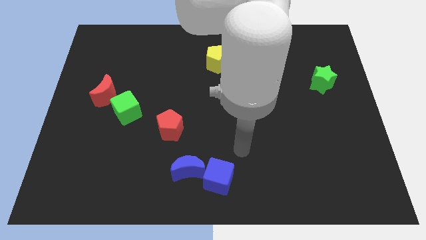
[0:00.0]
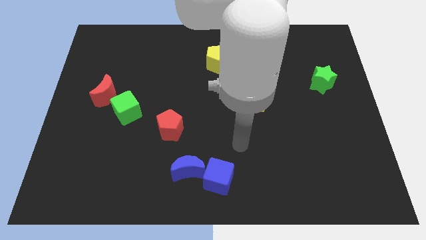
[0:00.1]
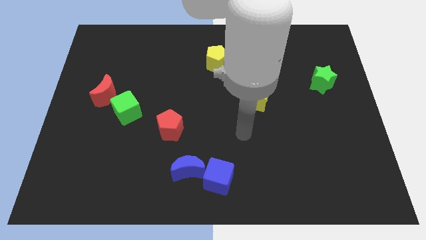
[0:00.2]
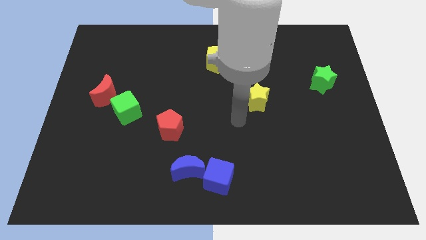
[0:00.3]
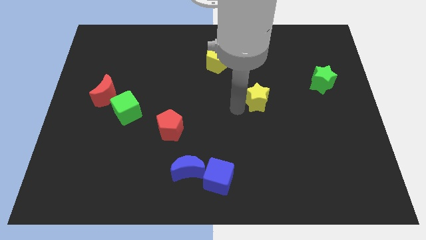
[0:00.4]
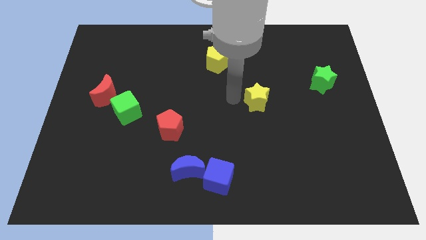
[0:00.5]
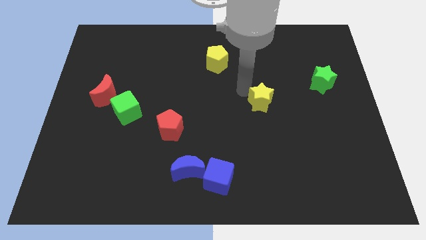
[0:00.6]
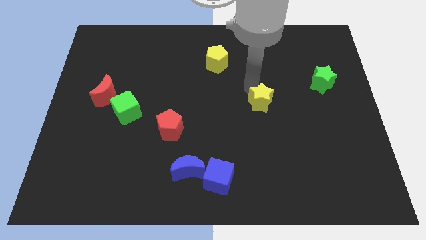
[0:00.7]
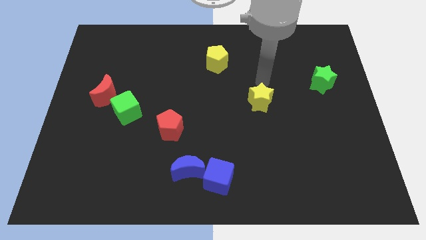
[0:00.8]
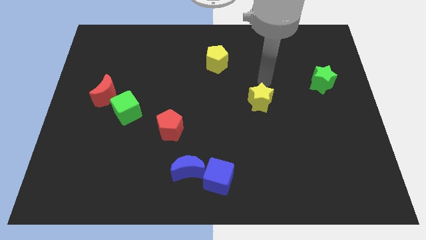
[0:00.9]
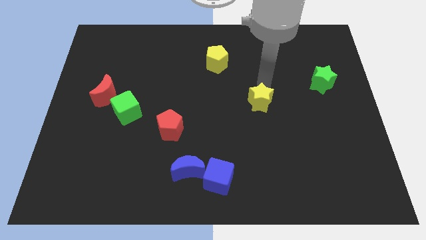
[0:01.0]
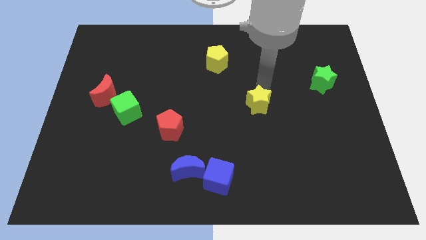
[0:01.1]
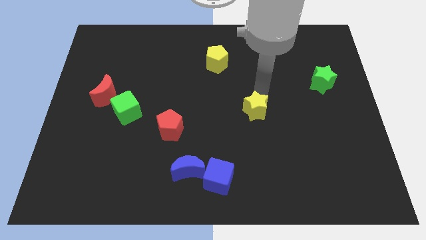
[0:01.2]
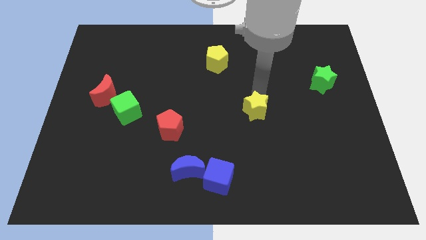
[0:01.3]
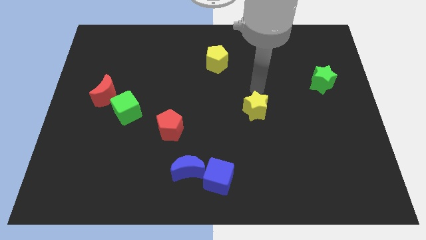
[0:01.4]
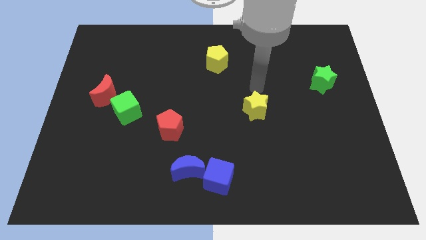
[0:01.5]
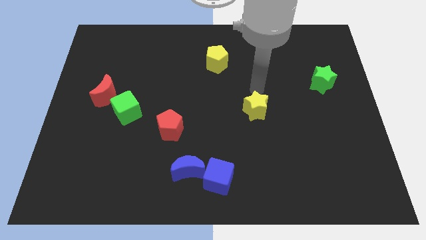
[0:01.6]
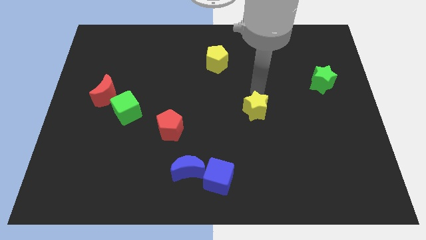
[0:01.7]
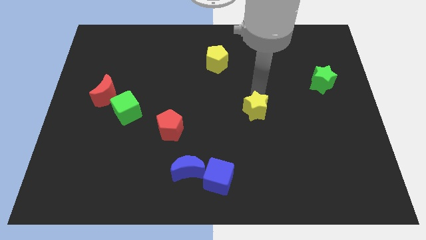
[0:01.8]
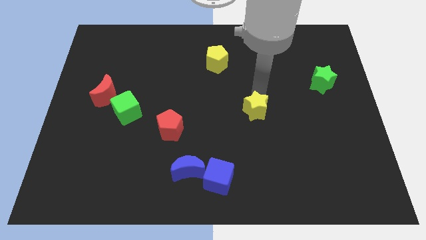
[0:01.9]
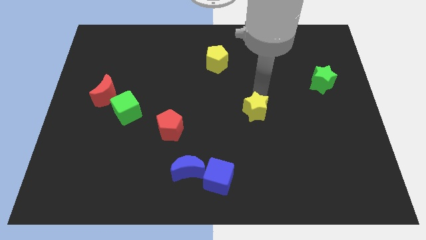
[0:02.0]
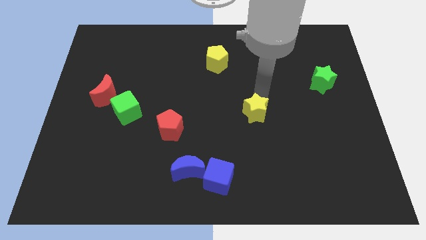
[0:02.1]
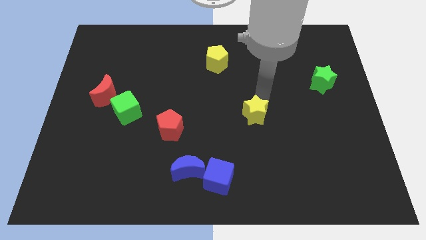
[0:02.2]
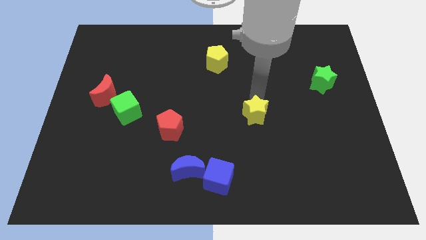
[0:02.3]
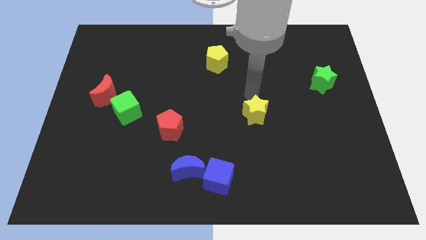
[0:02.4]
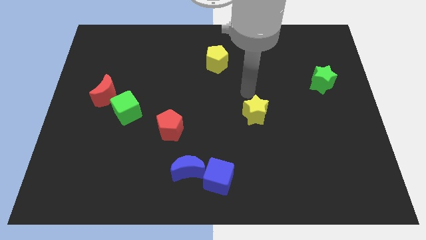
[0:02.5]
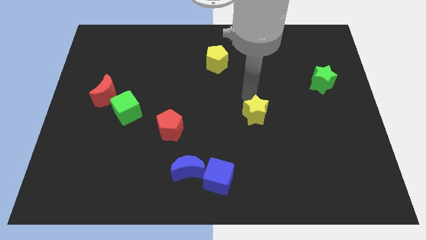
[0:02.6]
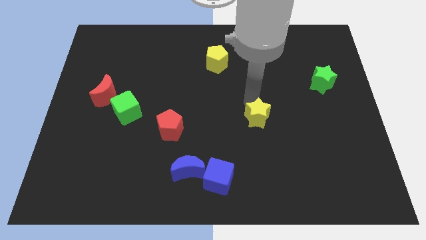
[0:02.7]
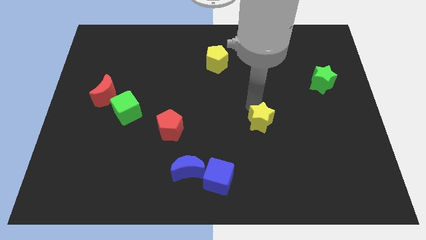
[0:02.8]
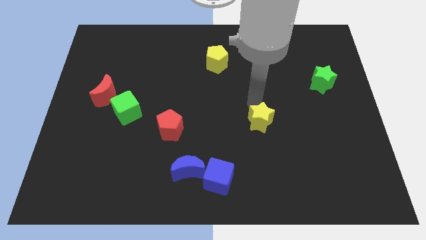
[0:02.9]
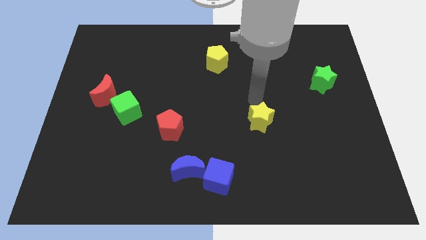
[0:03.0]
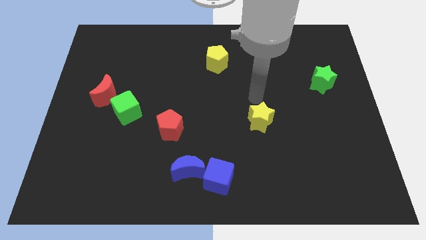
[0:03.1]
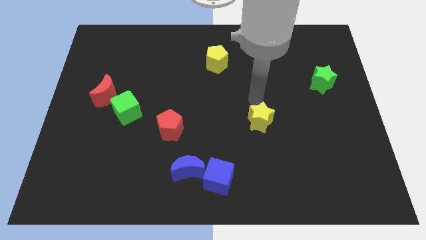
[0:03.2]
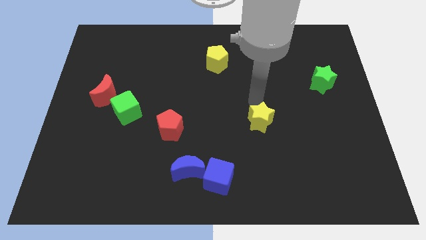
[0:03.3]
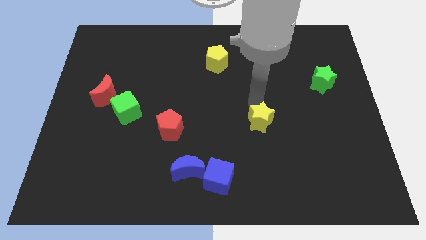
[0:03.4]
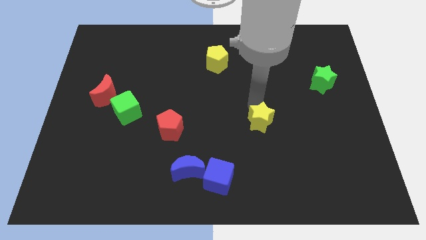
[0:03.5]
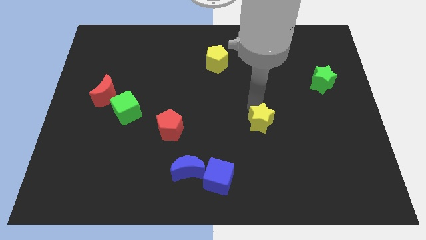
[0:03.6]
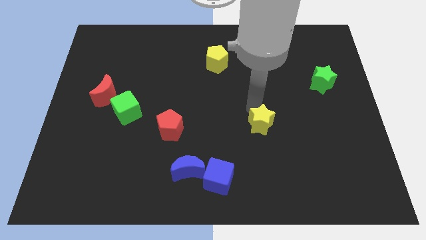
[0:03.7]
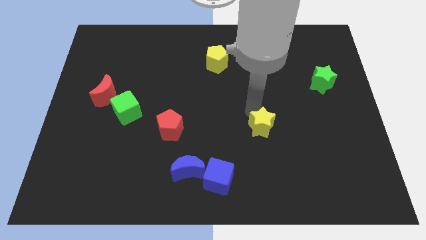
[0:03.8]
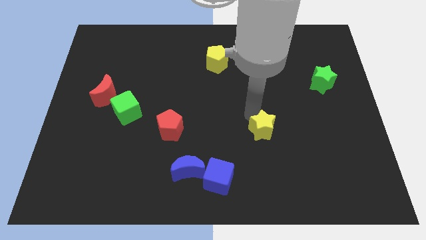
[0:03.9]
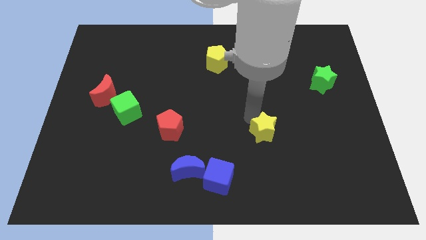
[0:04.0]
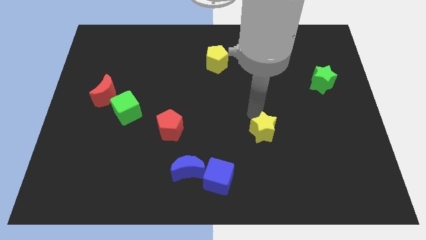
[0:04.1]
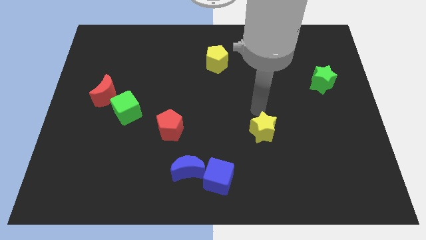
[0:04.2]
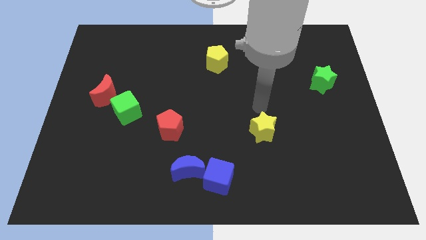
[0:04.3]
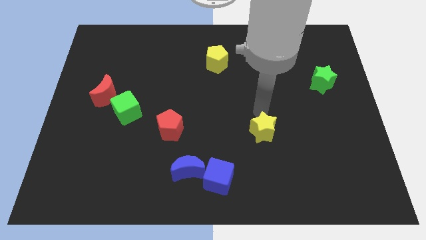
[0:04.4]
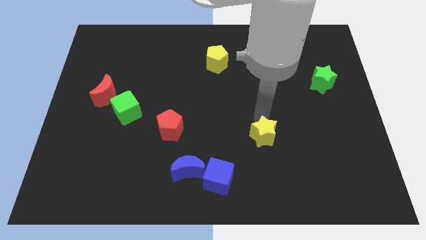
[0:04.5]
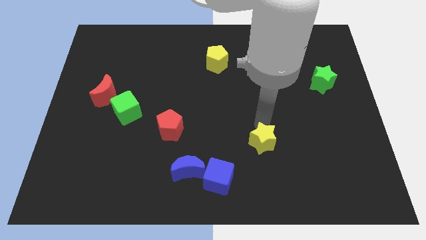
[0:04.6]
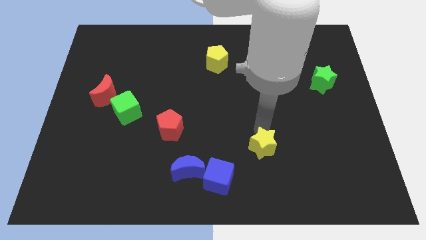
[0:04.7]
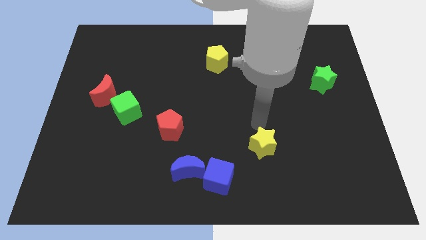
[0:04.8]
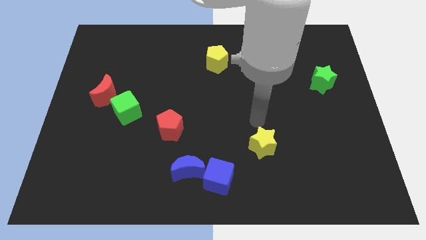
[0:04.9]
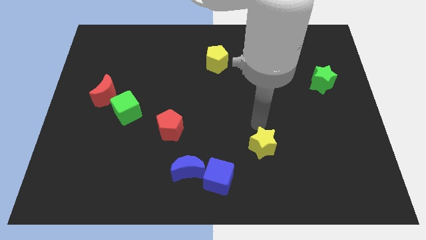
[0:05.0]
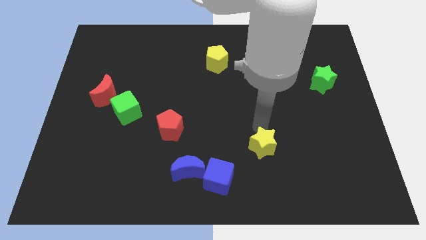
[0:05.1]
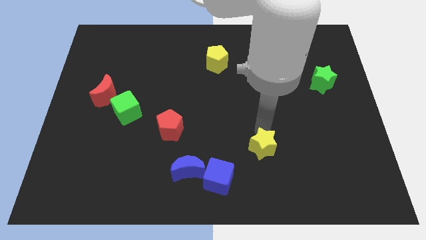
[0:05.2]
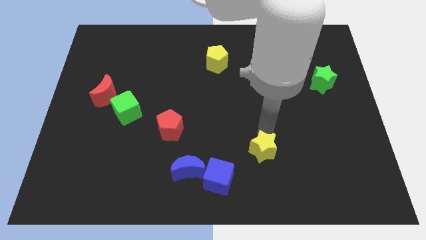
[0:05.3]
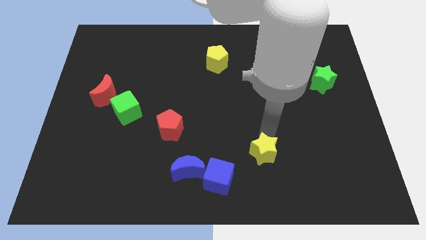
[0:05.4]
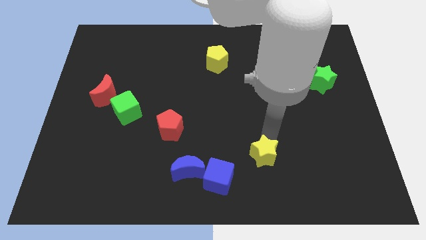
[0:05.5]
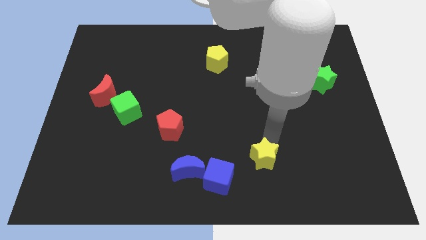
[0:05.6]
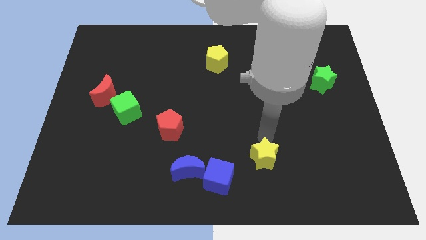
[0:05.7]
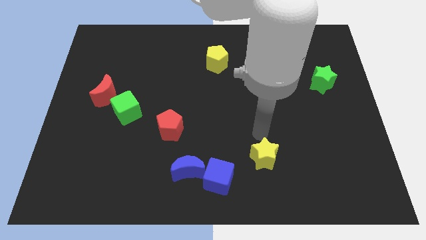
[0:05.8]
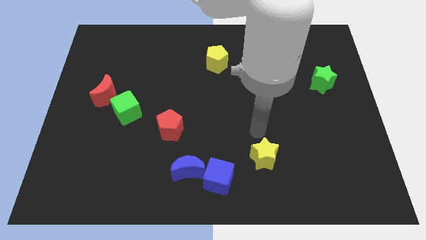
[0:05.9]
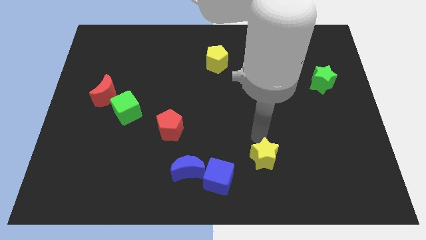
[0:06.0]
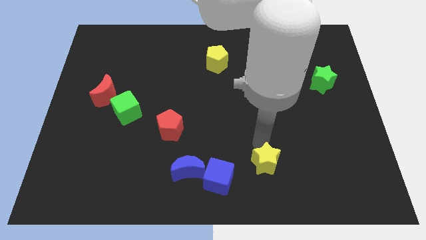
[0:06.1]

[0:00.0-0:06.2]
move the yellow star to the right side of the blue cube
